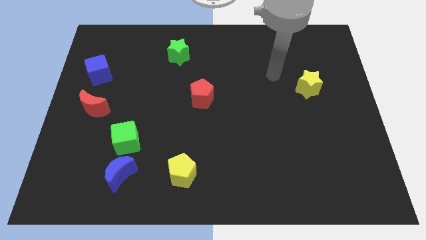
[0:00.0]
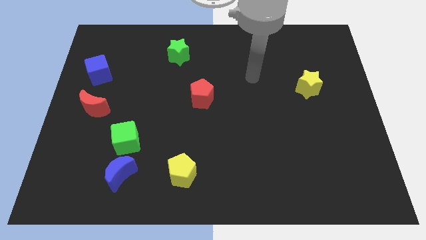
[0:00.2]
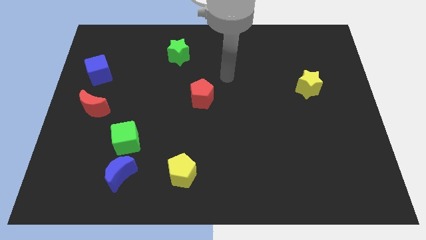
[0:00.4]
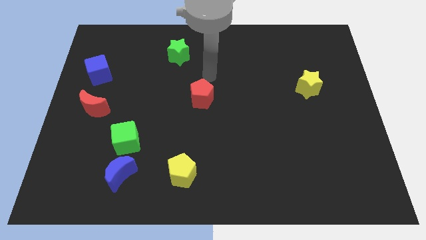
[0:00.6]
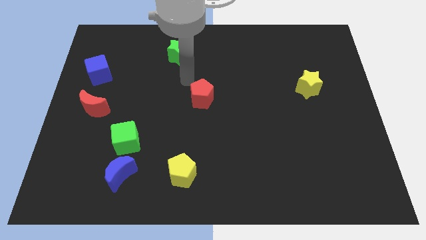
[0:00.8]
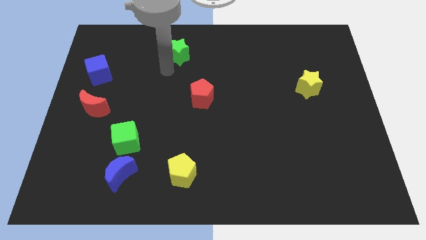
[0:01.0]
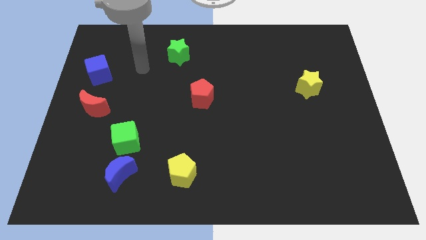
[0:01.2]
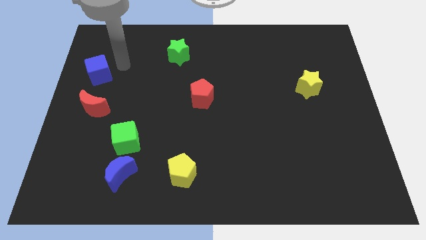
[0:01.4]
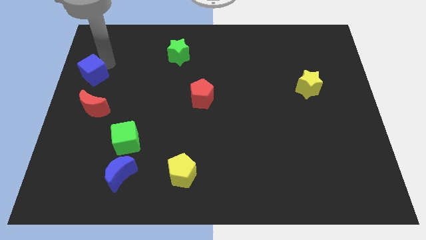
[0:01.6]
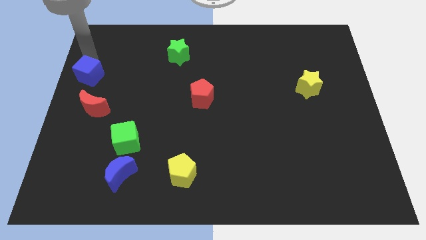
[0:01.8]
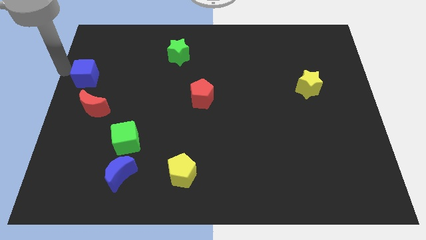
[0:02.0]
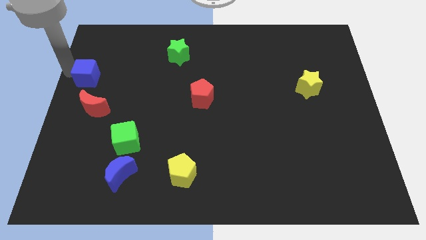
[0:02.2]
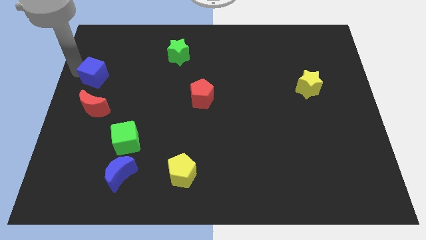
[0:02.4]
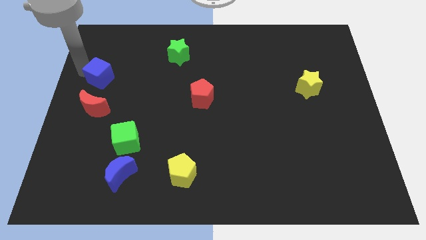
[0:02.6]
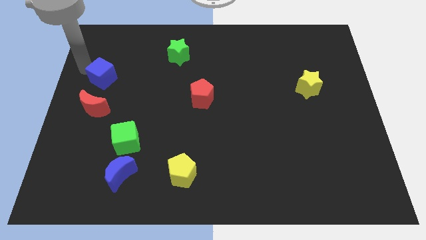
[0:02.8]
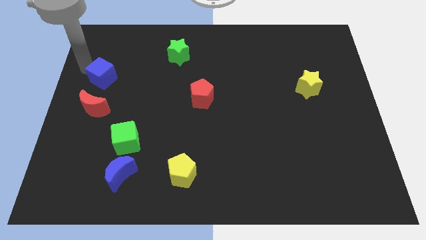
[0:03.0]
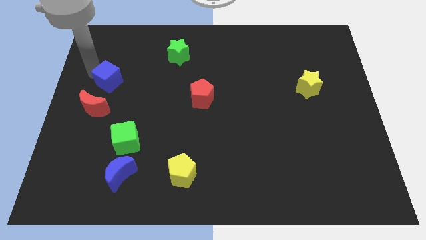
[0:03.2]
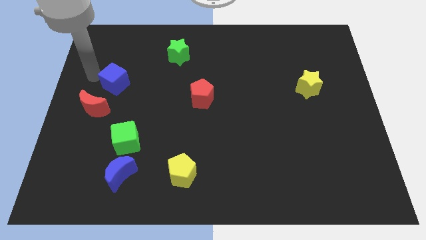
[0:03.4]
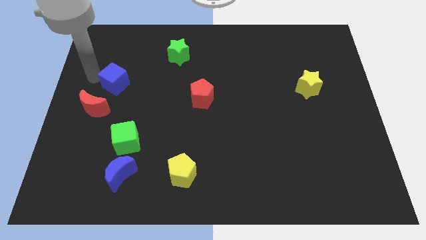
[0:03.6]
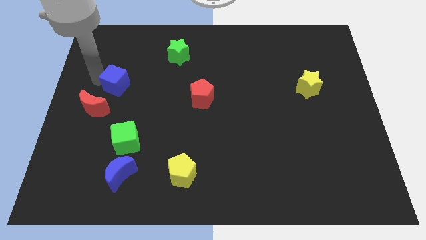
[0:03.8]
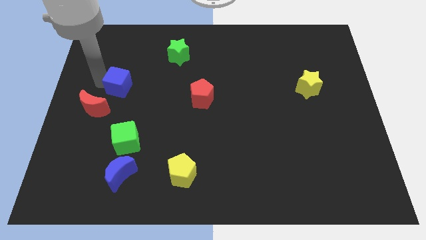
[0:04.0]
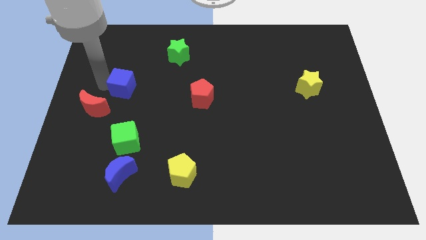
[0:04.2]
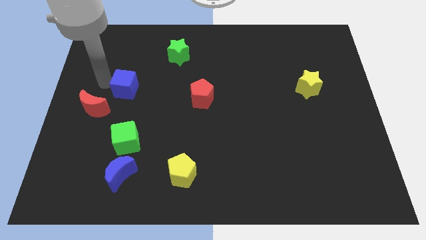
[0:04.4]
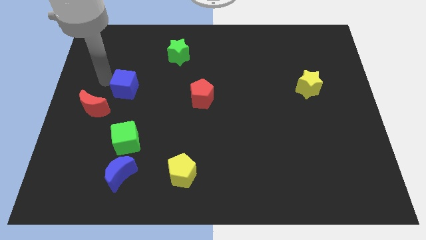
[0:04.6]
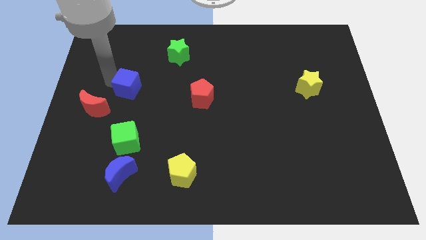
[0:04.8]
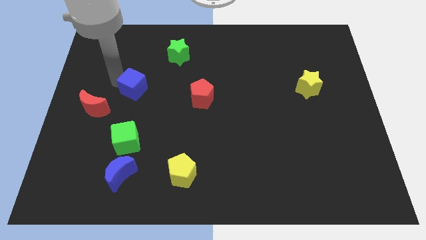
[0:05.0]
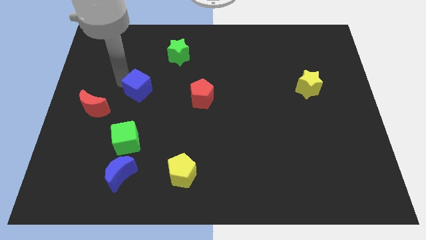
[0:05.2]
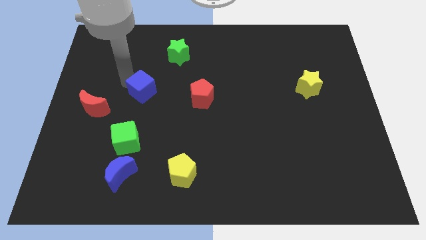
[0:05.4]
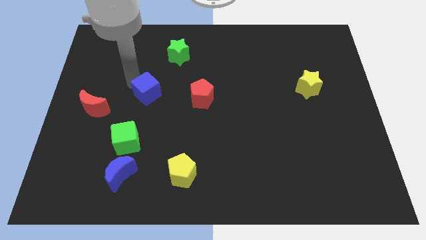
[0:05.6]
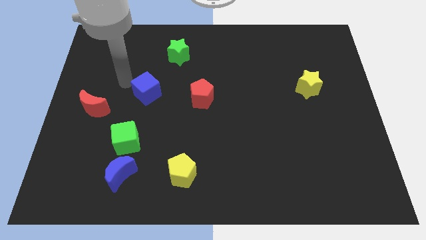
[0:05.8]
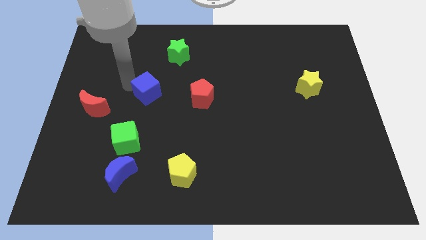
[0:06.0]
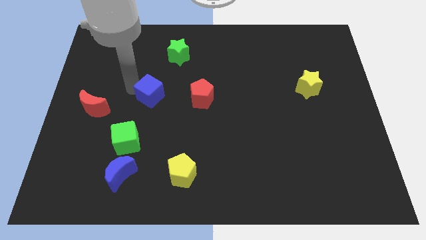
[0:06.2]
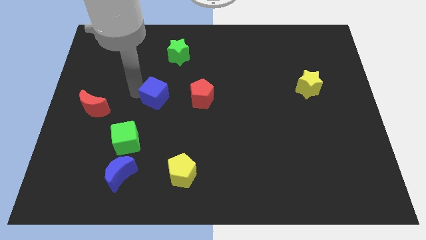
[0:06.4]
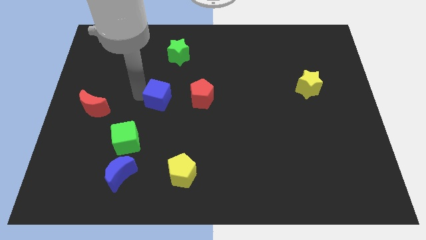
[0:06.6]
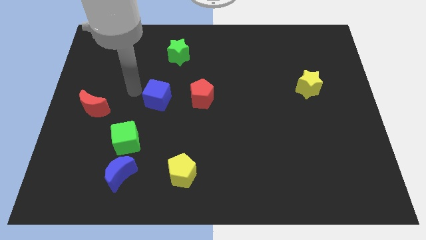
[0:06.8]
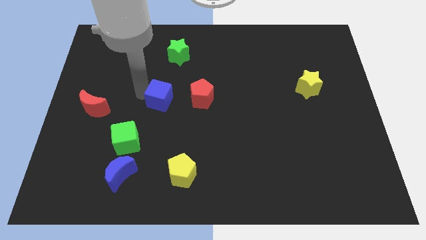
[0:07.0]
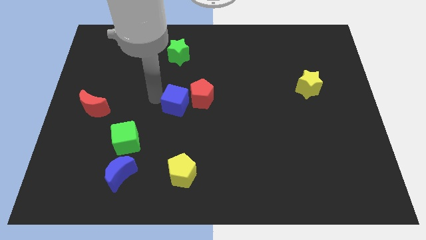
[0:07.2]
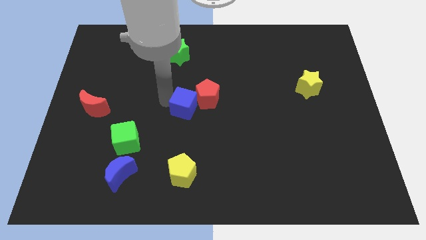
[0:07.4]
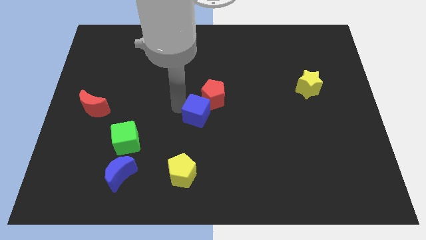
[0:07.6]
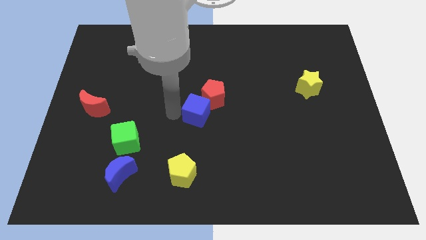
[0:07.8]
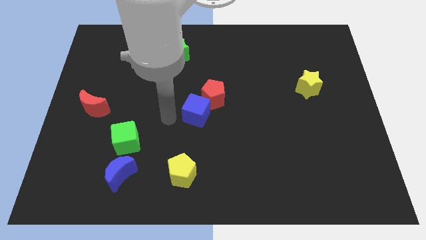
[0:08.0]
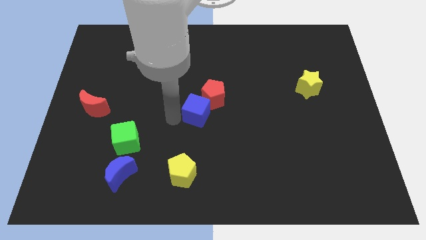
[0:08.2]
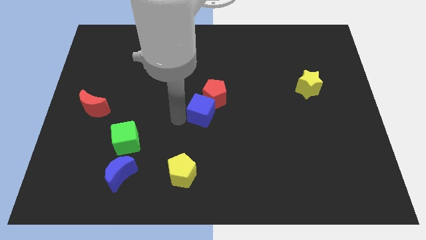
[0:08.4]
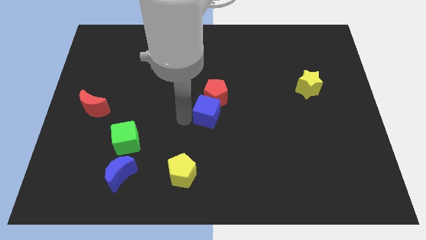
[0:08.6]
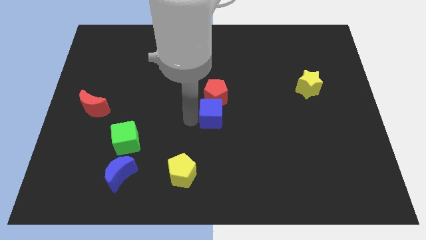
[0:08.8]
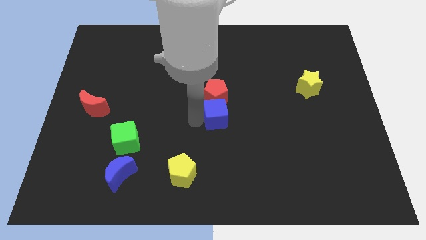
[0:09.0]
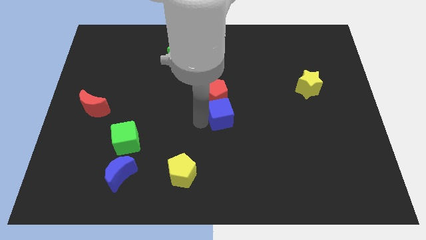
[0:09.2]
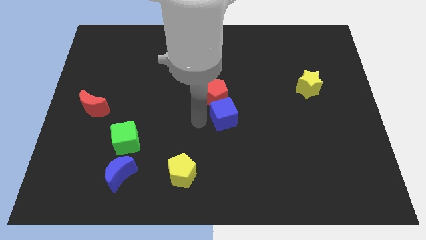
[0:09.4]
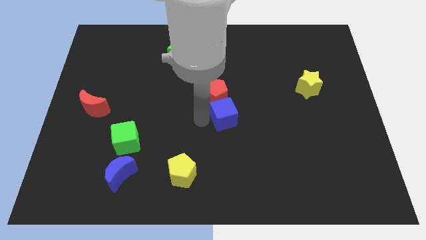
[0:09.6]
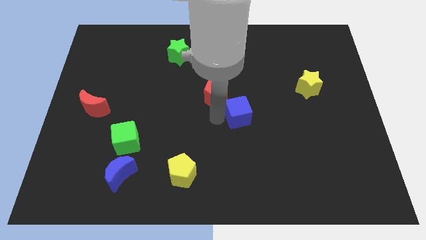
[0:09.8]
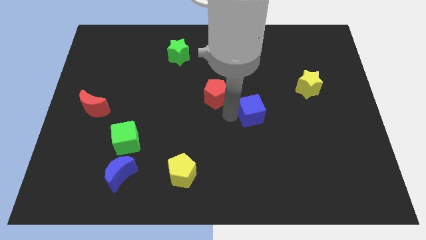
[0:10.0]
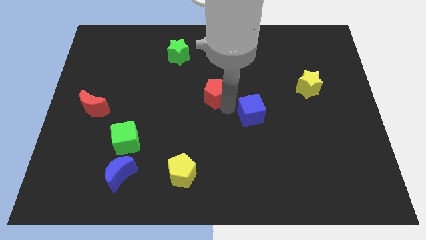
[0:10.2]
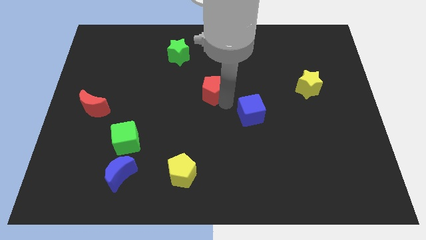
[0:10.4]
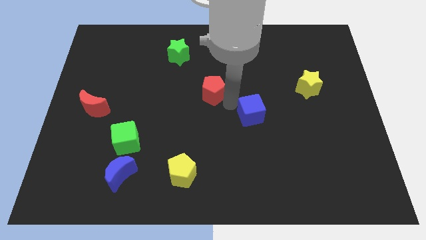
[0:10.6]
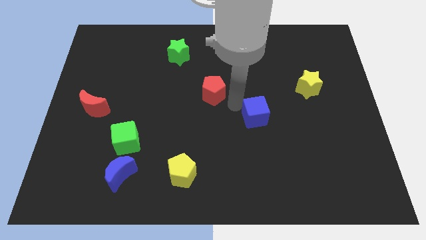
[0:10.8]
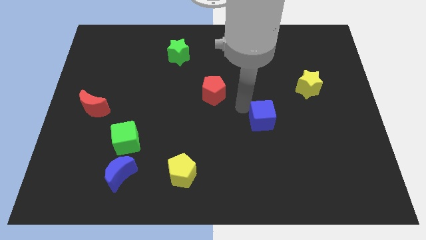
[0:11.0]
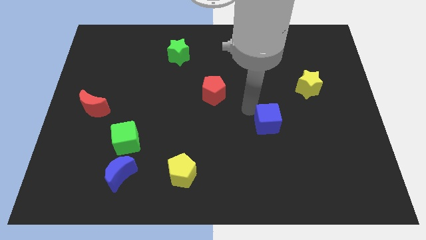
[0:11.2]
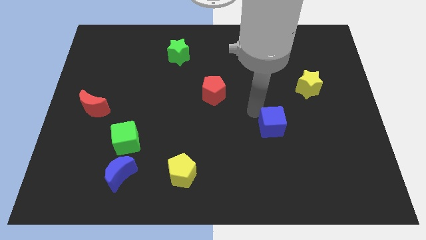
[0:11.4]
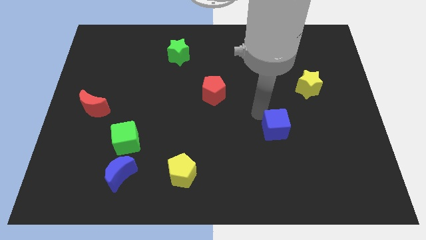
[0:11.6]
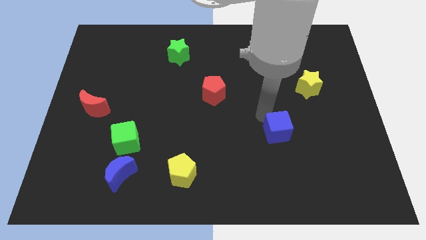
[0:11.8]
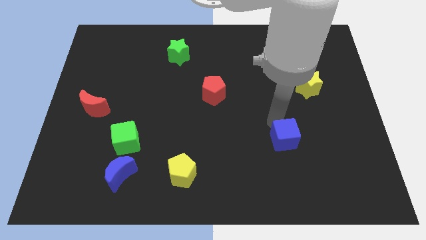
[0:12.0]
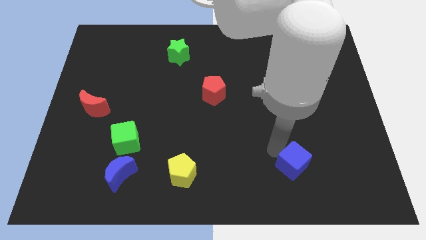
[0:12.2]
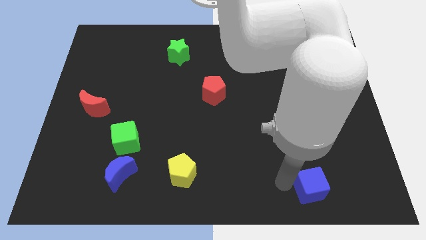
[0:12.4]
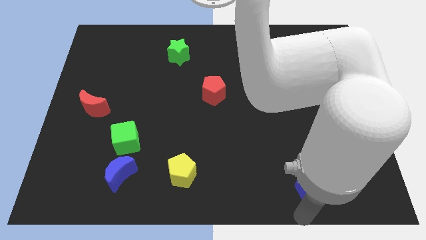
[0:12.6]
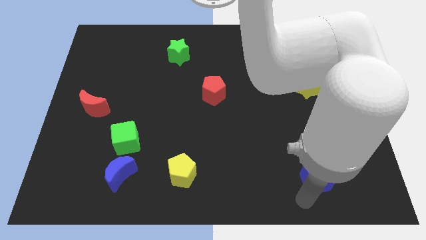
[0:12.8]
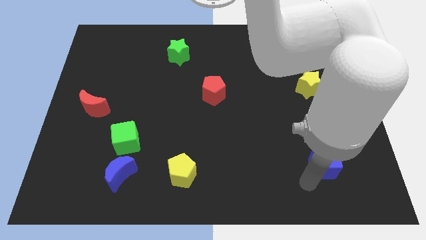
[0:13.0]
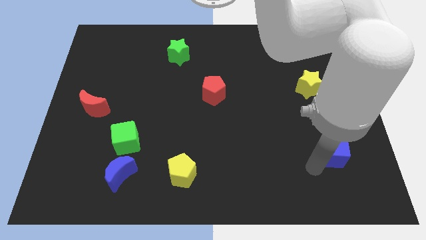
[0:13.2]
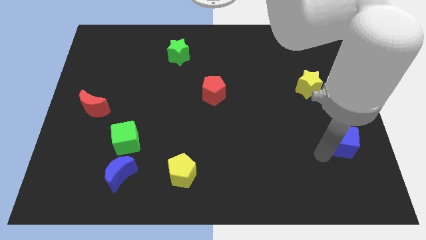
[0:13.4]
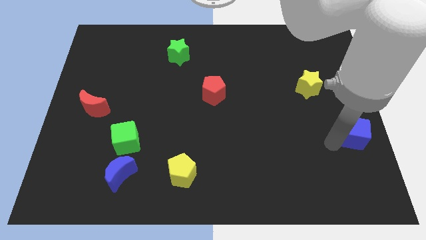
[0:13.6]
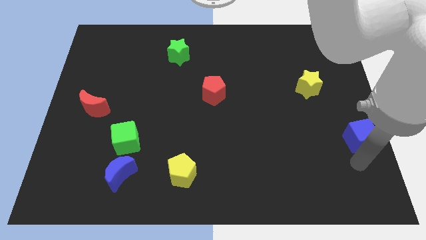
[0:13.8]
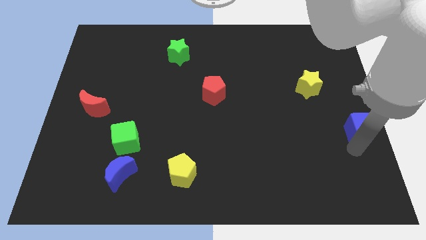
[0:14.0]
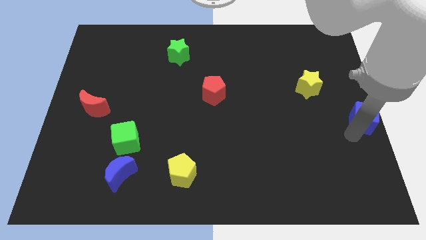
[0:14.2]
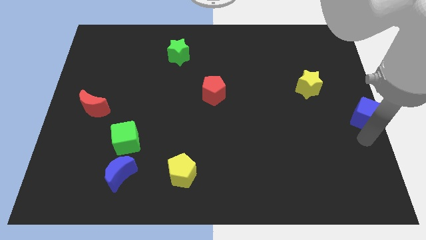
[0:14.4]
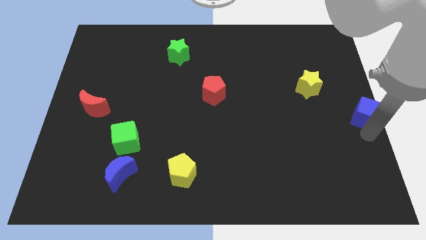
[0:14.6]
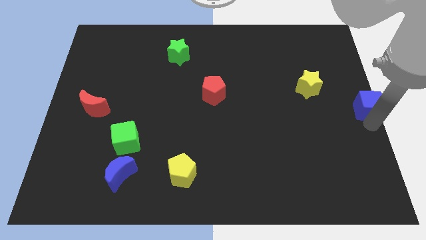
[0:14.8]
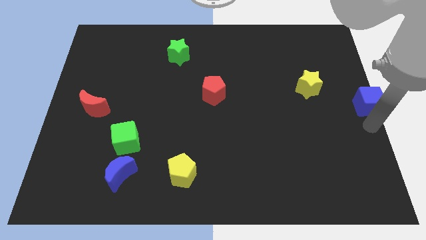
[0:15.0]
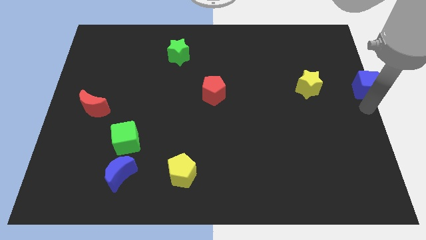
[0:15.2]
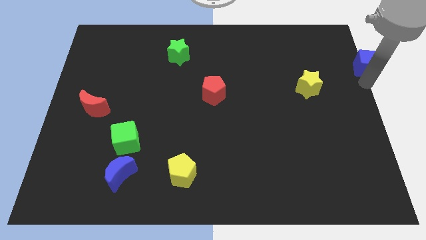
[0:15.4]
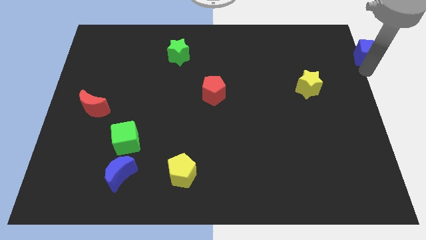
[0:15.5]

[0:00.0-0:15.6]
slide the blue cube to the top right corner
